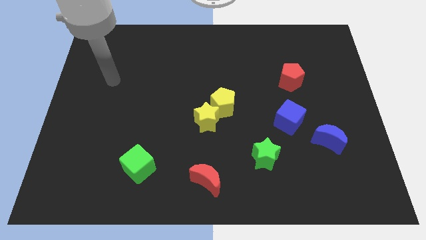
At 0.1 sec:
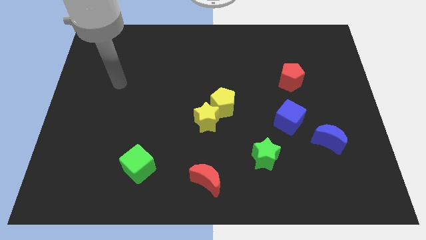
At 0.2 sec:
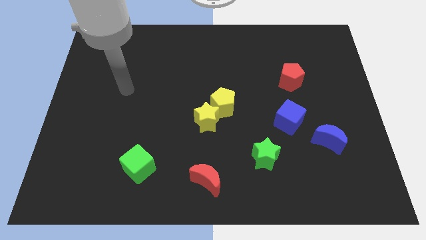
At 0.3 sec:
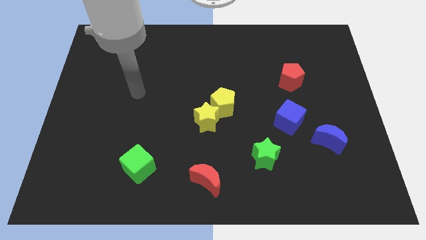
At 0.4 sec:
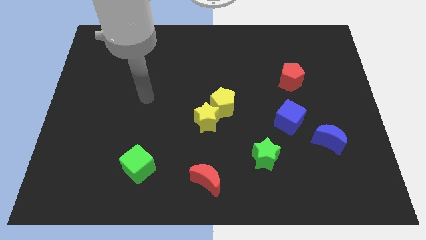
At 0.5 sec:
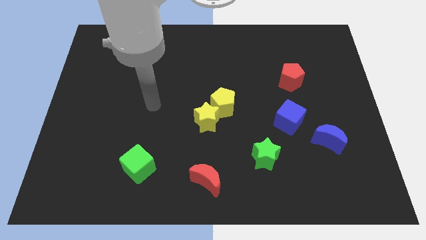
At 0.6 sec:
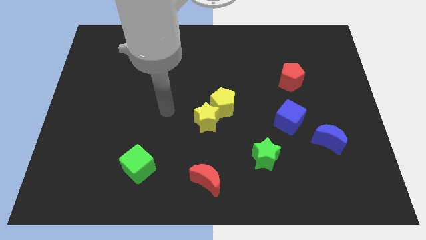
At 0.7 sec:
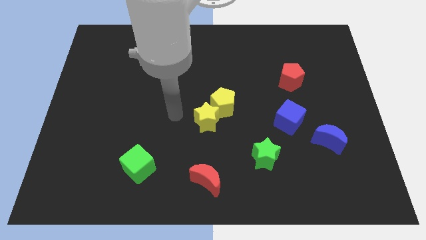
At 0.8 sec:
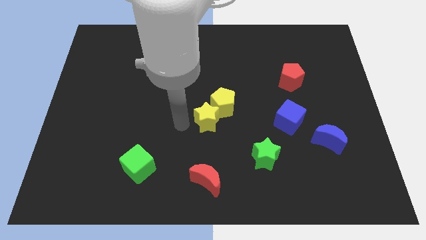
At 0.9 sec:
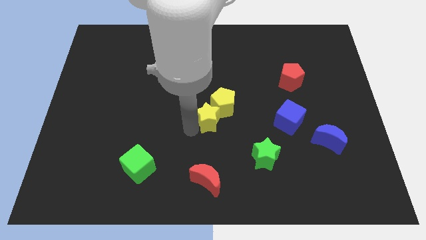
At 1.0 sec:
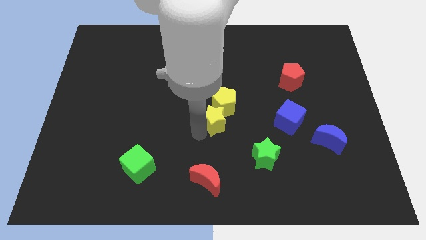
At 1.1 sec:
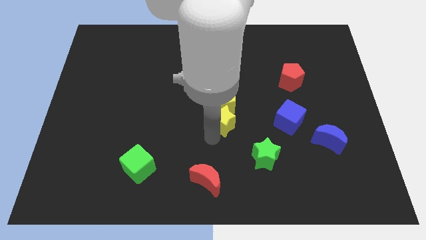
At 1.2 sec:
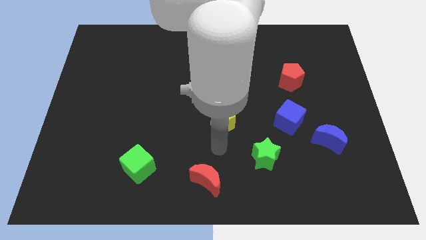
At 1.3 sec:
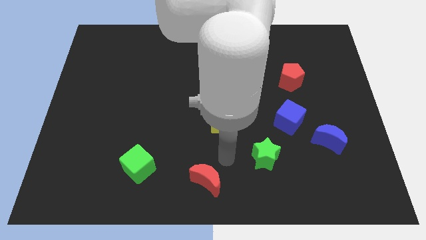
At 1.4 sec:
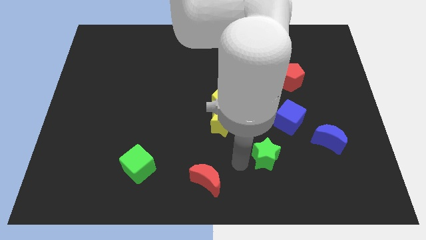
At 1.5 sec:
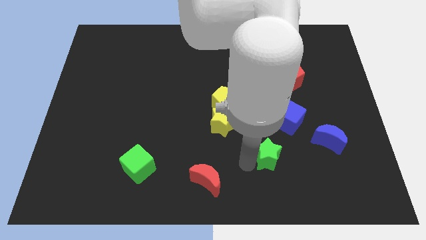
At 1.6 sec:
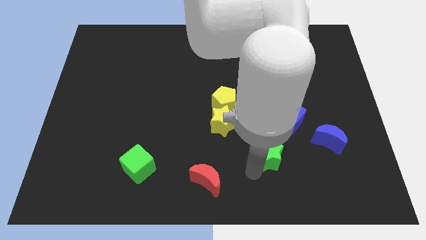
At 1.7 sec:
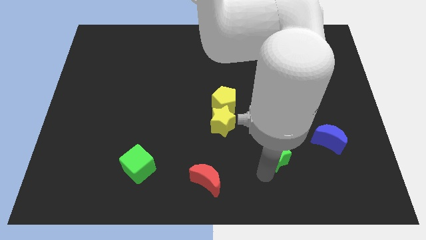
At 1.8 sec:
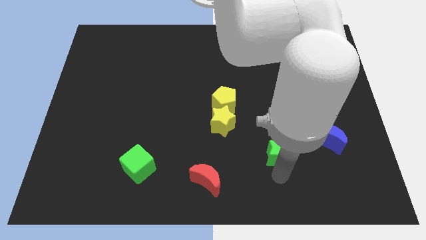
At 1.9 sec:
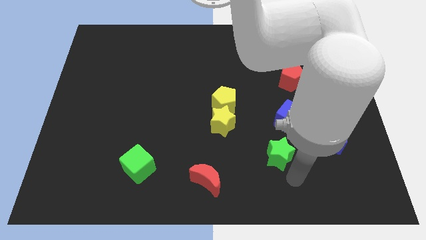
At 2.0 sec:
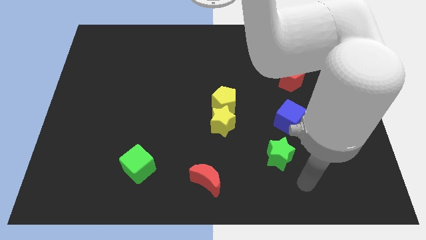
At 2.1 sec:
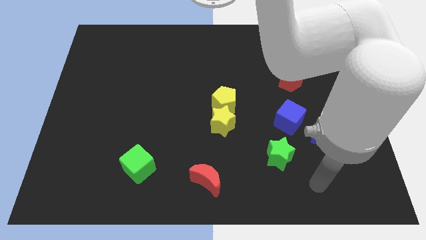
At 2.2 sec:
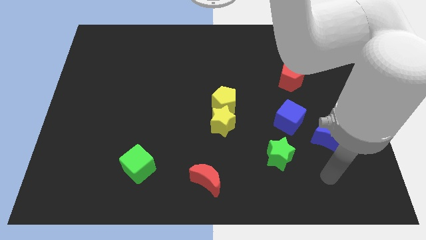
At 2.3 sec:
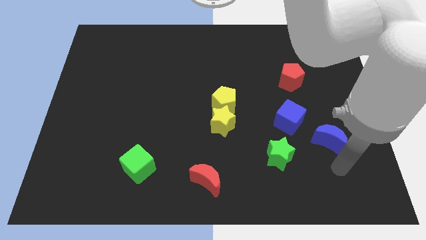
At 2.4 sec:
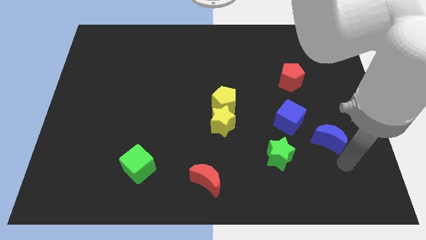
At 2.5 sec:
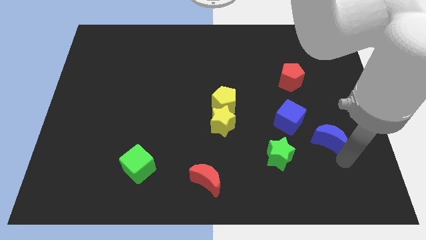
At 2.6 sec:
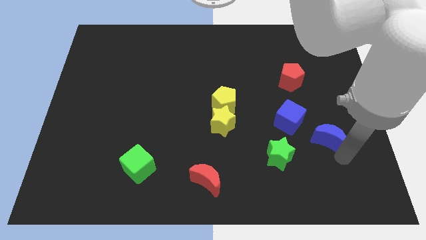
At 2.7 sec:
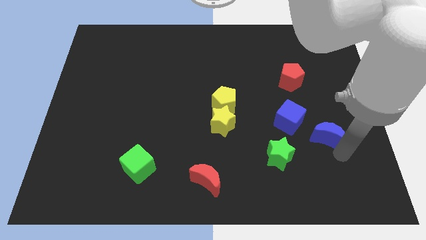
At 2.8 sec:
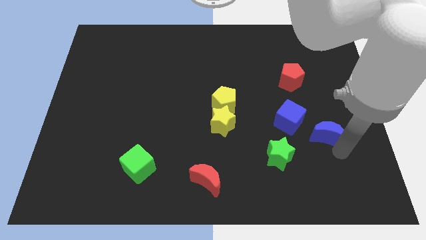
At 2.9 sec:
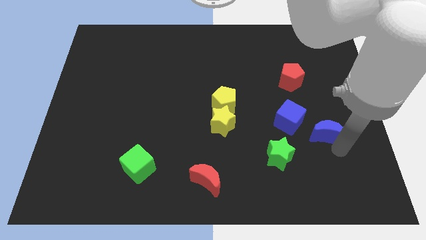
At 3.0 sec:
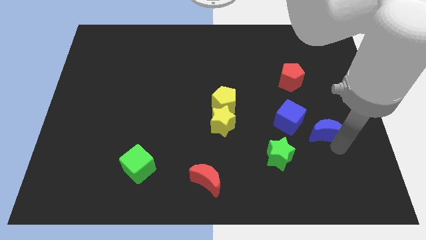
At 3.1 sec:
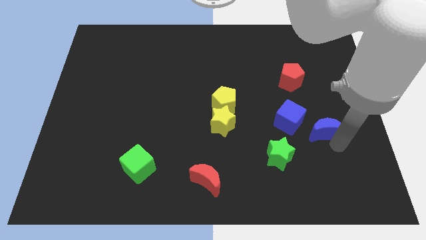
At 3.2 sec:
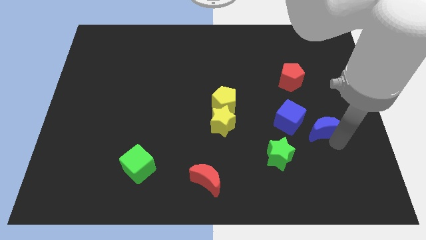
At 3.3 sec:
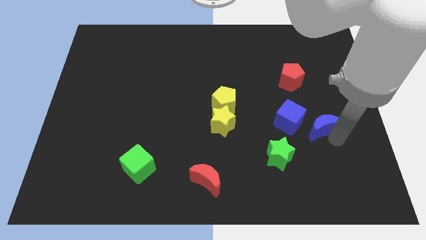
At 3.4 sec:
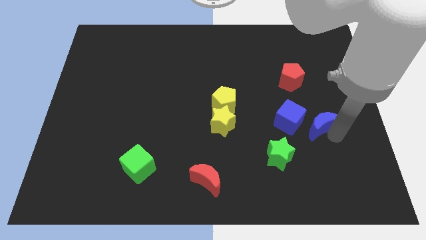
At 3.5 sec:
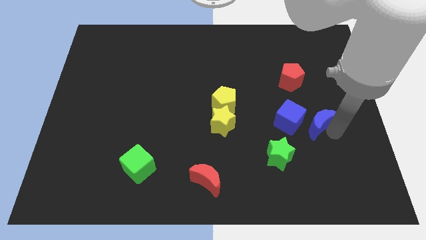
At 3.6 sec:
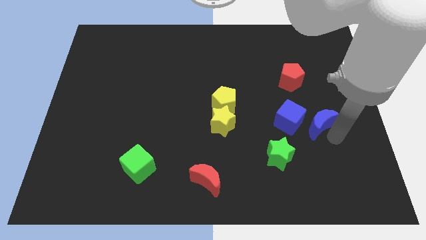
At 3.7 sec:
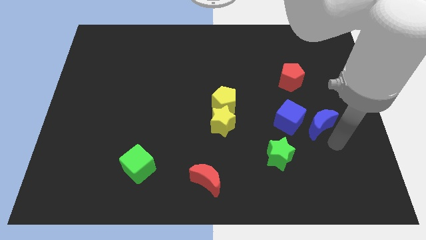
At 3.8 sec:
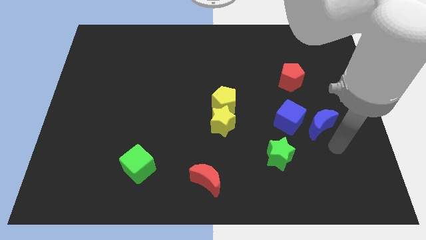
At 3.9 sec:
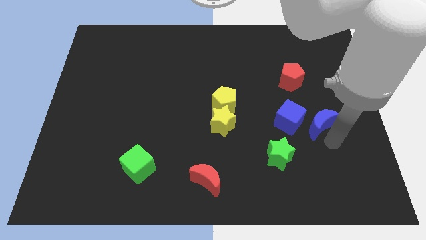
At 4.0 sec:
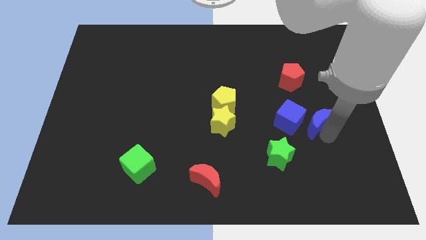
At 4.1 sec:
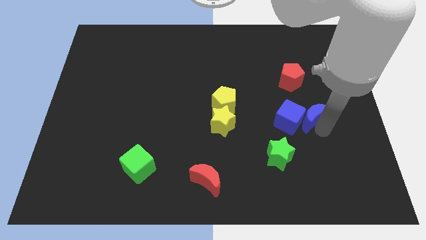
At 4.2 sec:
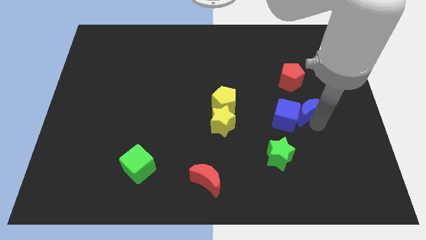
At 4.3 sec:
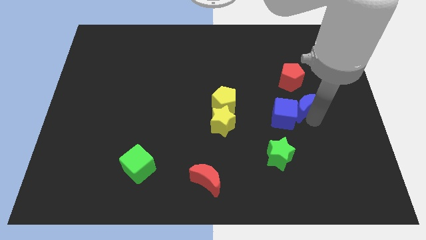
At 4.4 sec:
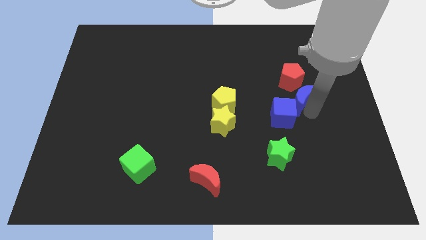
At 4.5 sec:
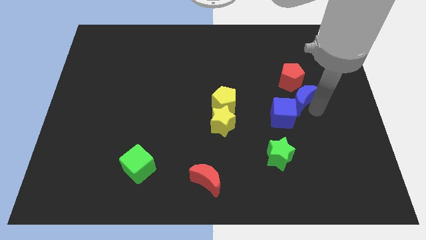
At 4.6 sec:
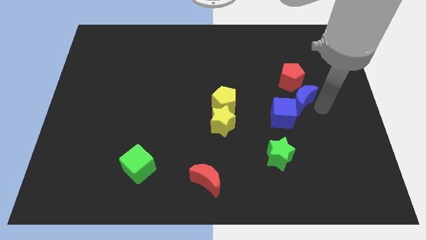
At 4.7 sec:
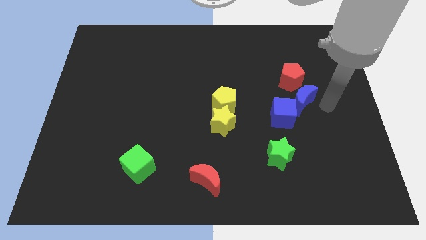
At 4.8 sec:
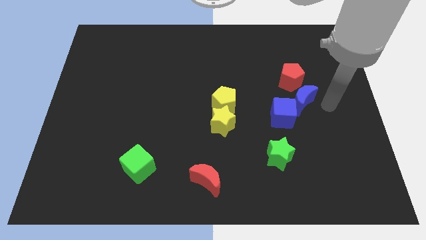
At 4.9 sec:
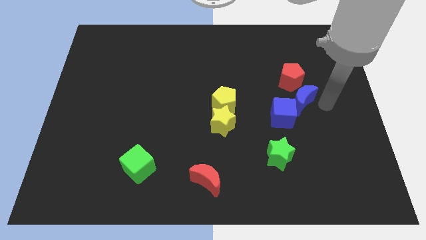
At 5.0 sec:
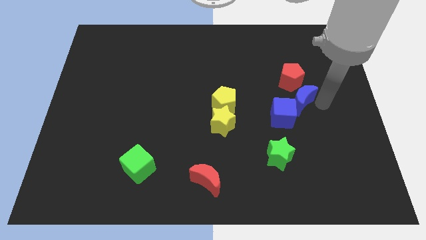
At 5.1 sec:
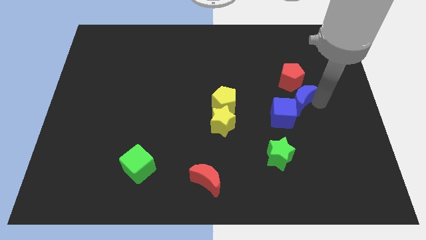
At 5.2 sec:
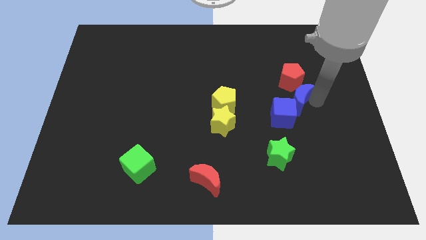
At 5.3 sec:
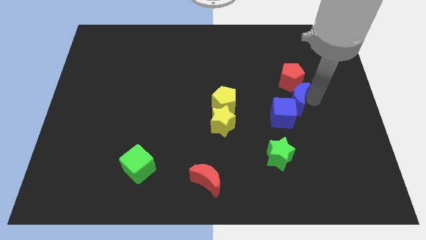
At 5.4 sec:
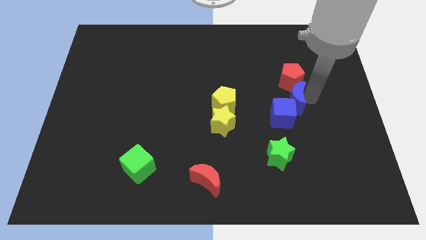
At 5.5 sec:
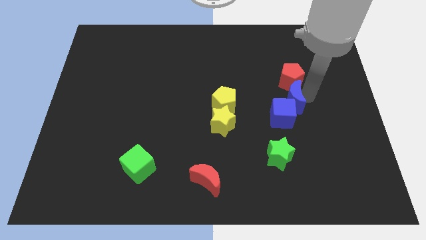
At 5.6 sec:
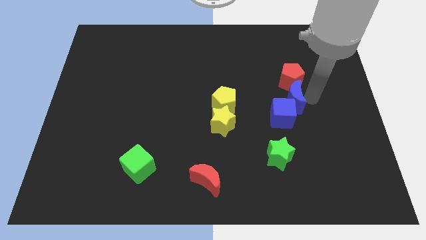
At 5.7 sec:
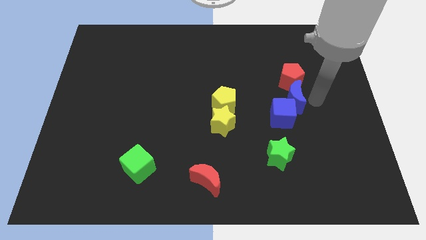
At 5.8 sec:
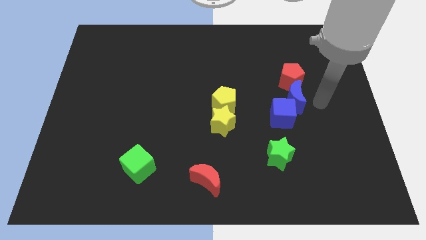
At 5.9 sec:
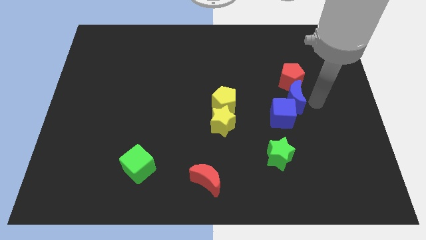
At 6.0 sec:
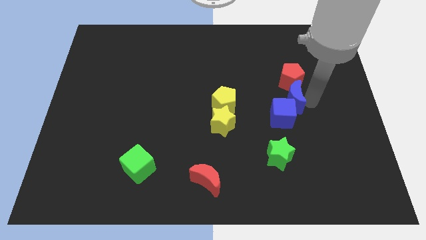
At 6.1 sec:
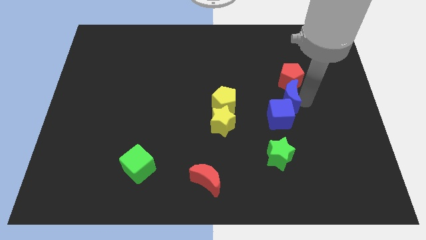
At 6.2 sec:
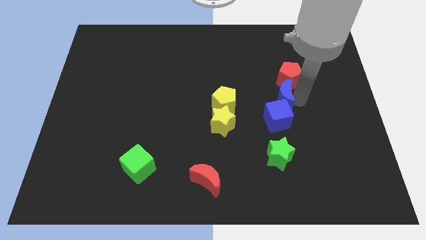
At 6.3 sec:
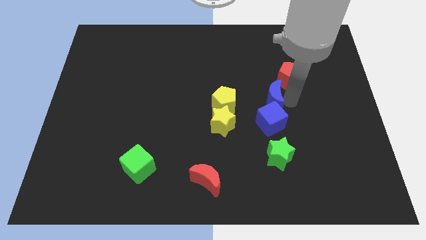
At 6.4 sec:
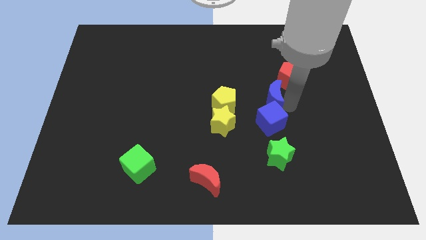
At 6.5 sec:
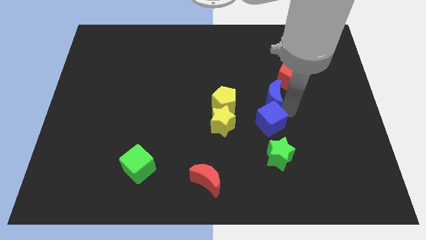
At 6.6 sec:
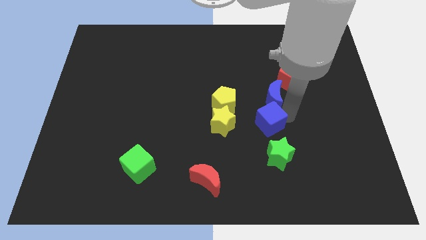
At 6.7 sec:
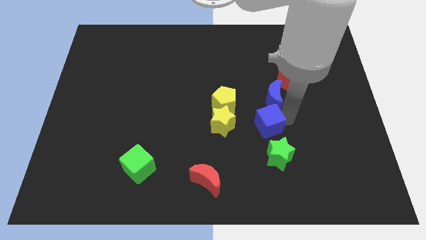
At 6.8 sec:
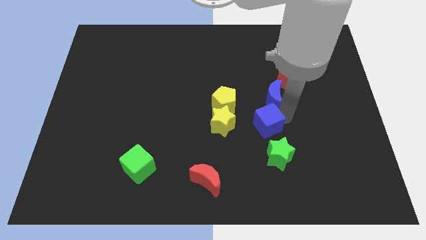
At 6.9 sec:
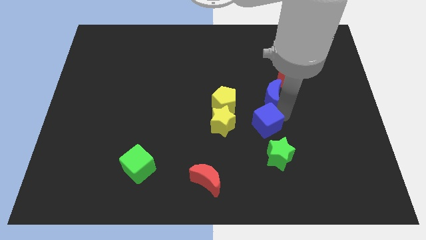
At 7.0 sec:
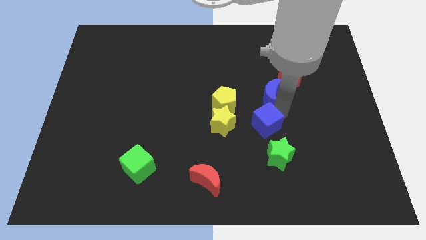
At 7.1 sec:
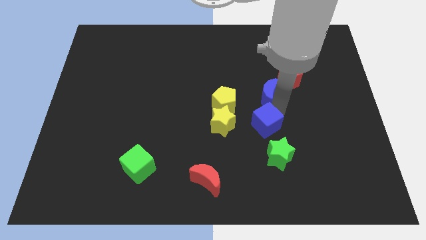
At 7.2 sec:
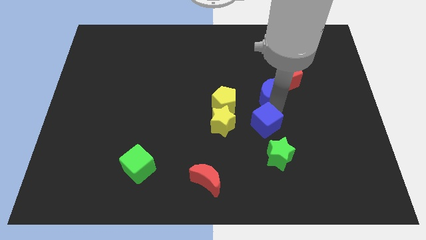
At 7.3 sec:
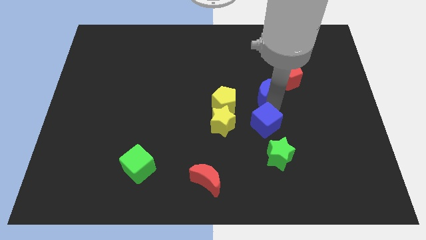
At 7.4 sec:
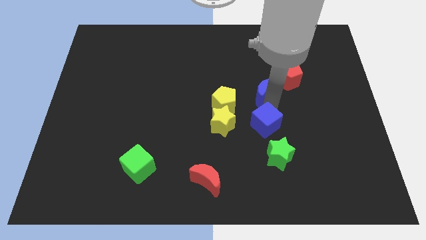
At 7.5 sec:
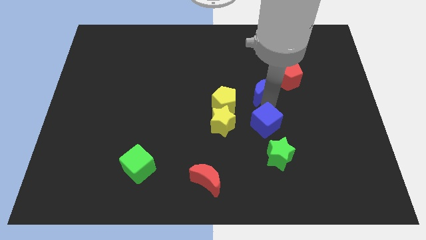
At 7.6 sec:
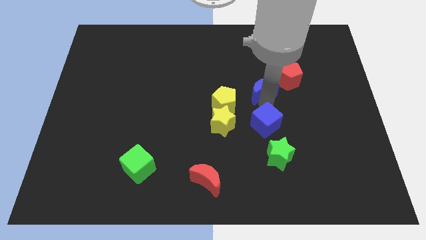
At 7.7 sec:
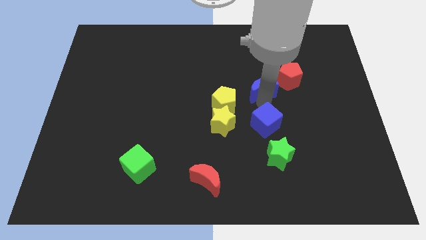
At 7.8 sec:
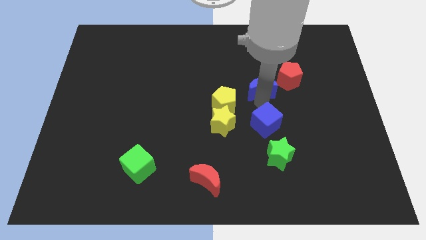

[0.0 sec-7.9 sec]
move the blue moon upwards and then to the left

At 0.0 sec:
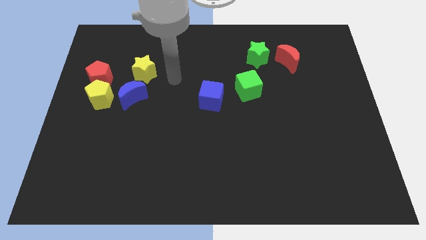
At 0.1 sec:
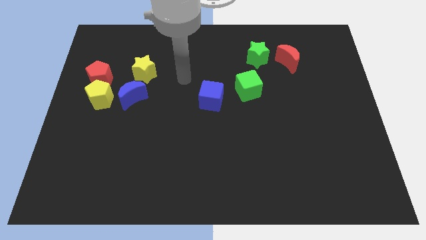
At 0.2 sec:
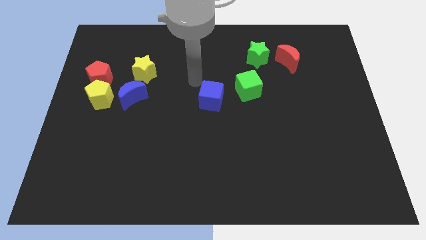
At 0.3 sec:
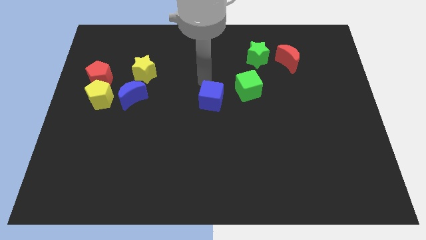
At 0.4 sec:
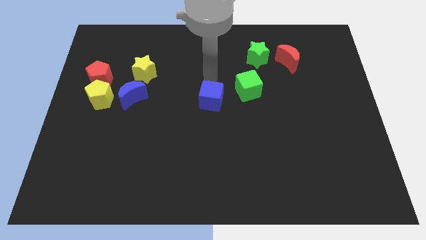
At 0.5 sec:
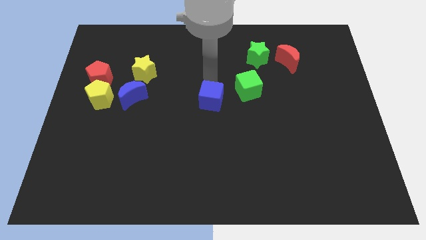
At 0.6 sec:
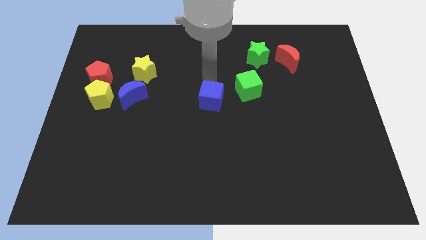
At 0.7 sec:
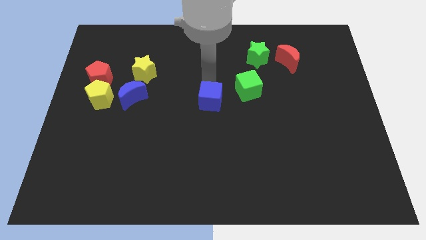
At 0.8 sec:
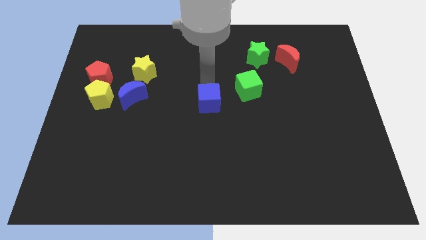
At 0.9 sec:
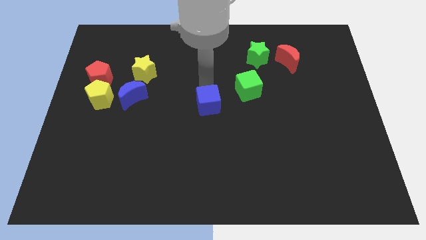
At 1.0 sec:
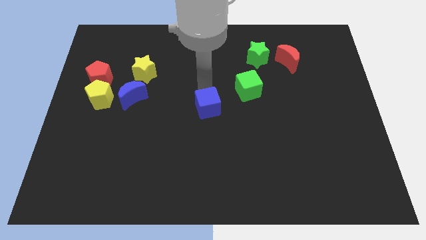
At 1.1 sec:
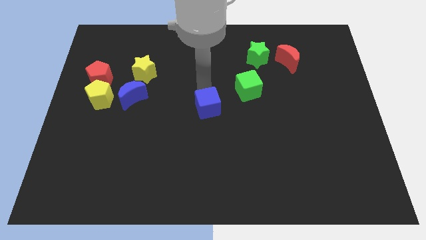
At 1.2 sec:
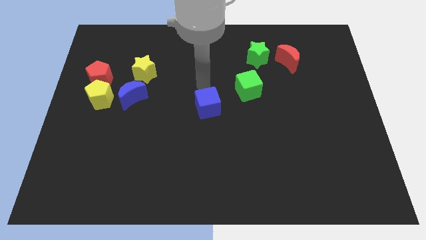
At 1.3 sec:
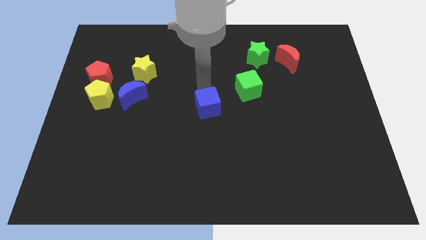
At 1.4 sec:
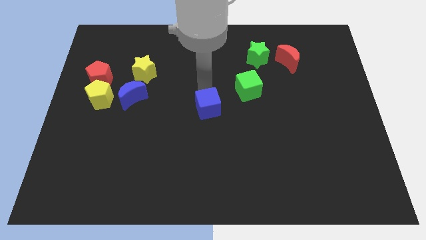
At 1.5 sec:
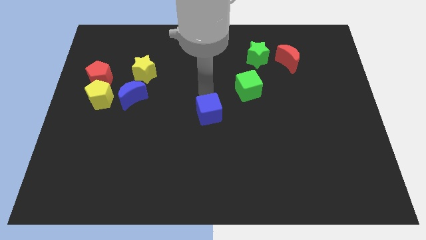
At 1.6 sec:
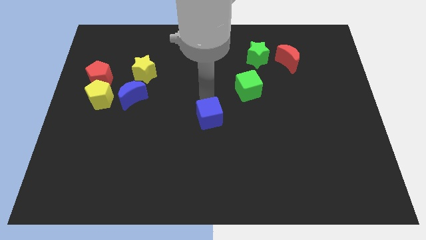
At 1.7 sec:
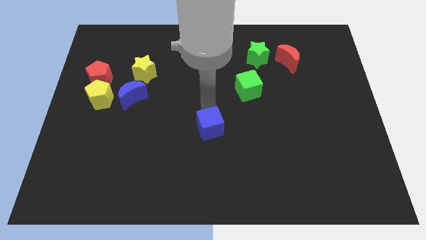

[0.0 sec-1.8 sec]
push the blue cube a little bit downwards
